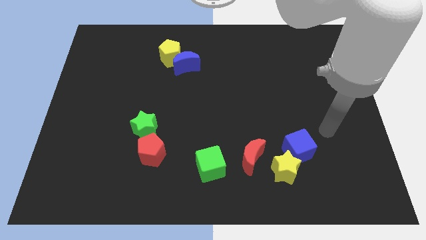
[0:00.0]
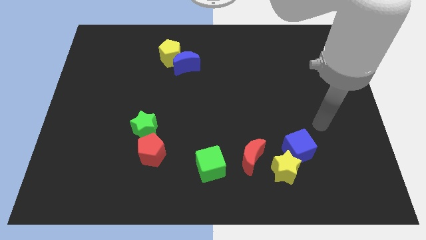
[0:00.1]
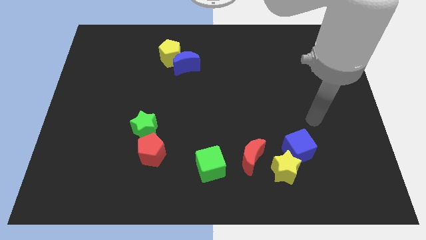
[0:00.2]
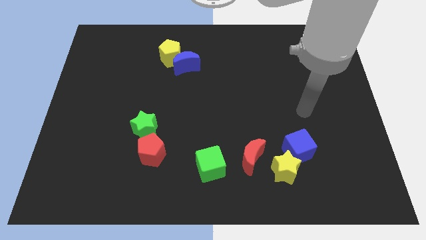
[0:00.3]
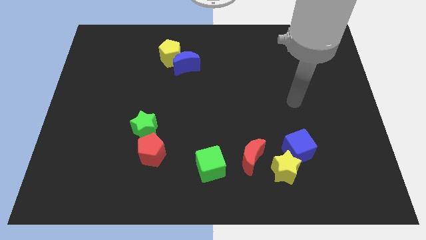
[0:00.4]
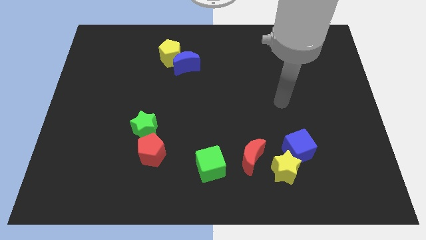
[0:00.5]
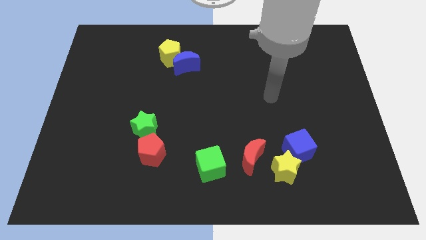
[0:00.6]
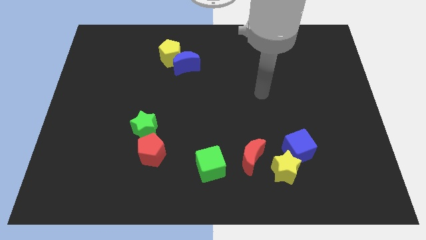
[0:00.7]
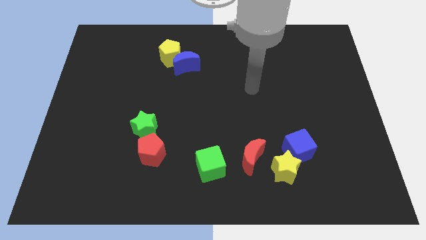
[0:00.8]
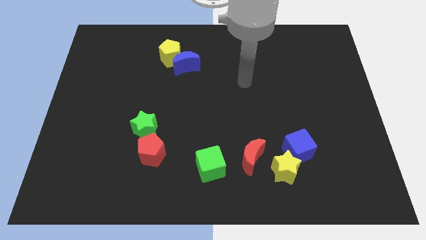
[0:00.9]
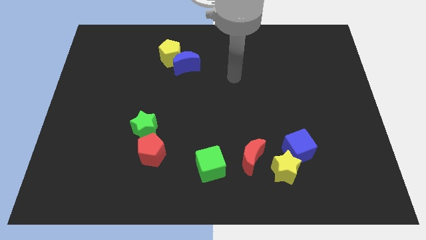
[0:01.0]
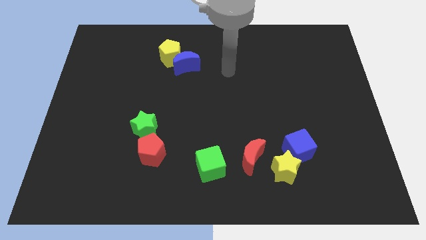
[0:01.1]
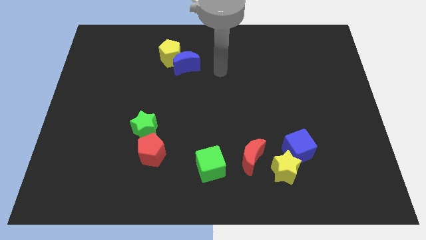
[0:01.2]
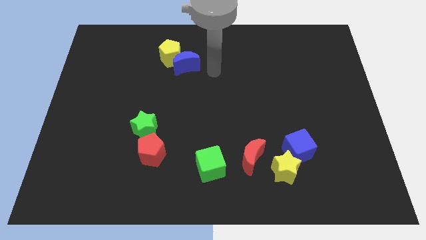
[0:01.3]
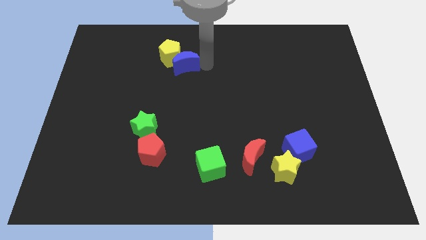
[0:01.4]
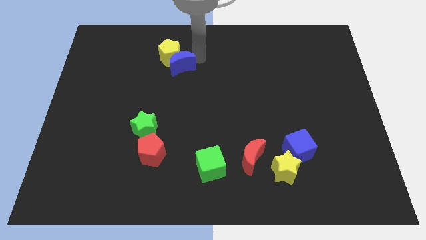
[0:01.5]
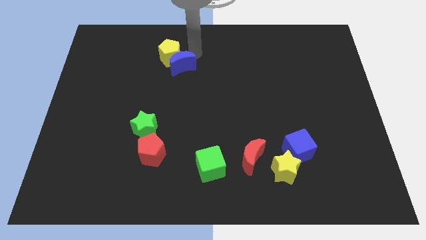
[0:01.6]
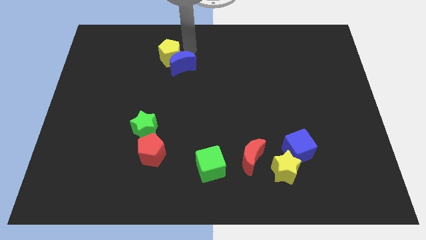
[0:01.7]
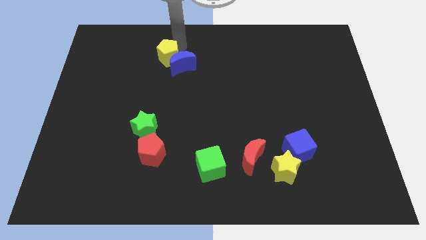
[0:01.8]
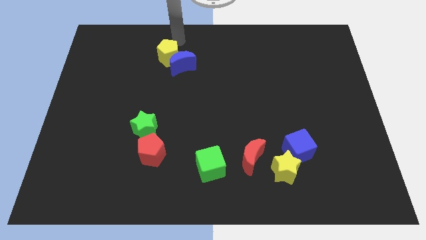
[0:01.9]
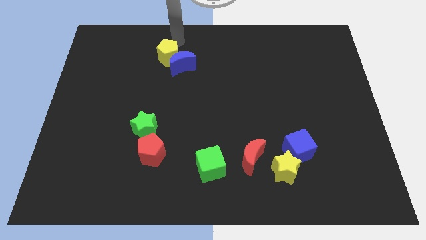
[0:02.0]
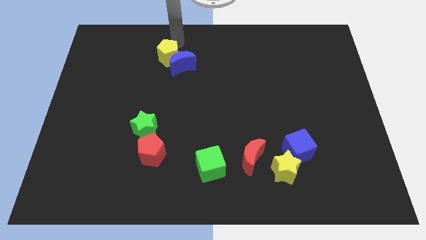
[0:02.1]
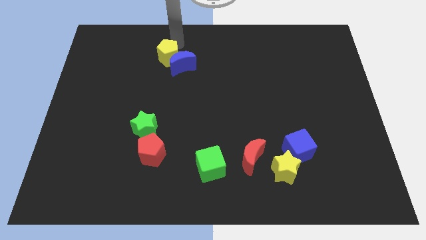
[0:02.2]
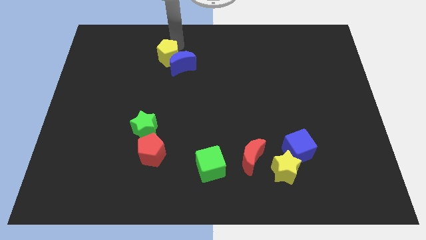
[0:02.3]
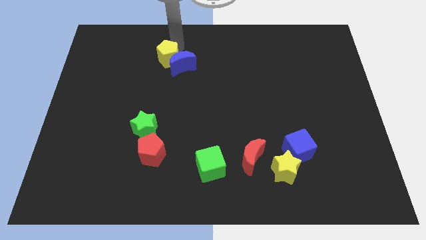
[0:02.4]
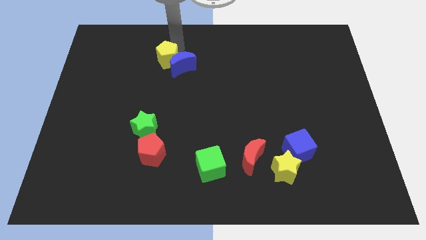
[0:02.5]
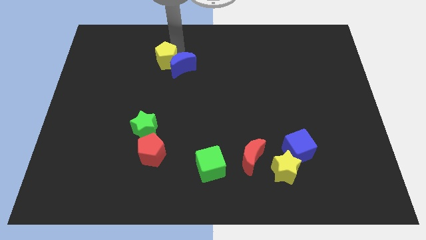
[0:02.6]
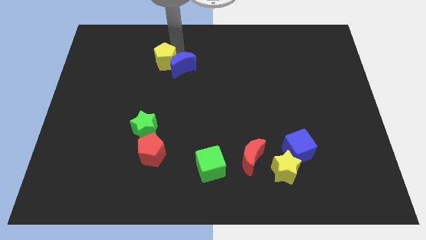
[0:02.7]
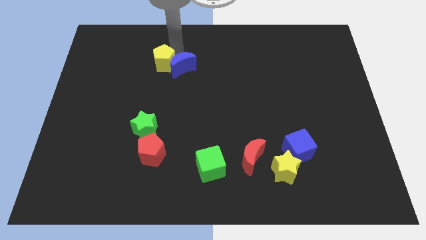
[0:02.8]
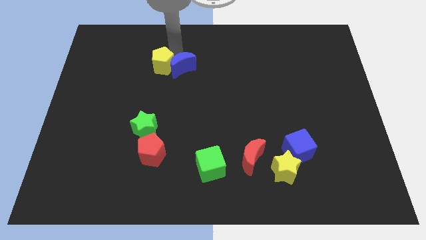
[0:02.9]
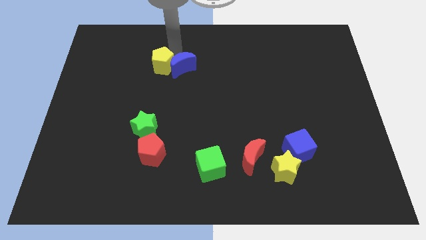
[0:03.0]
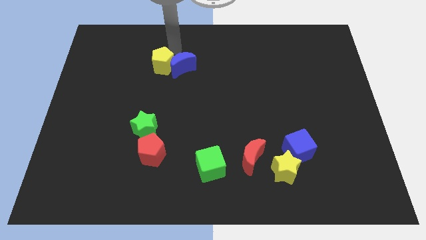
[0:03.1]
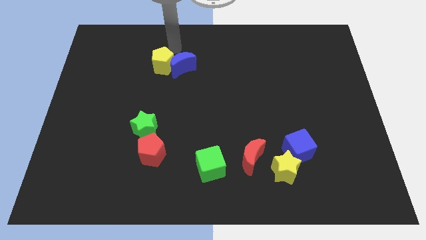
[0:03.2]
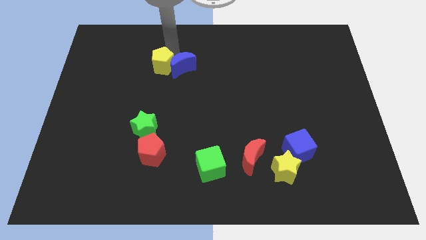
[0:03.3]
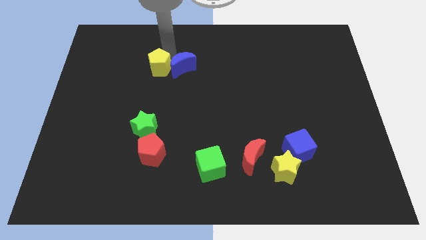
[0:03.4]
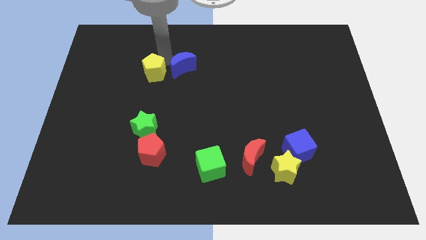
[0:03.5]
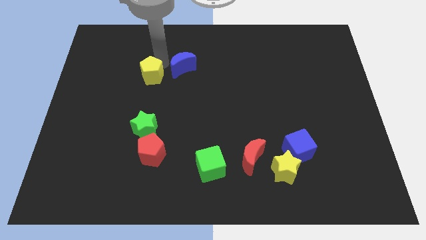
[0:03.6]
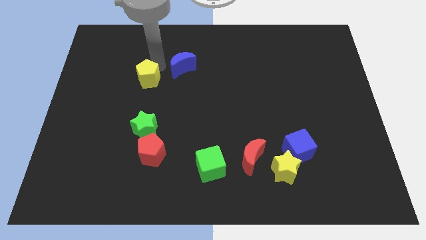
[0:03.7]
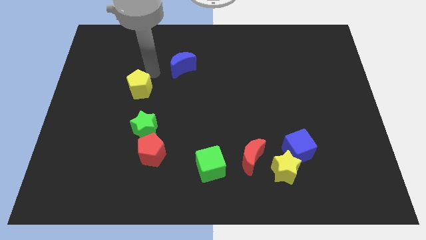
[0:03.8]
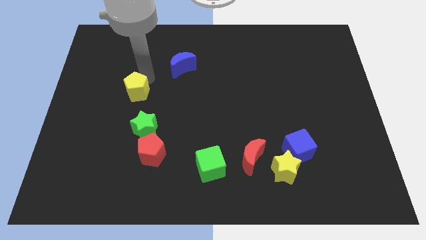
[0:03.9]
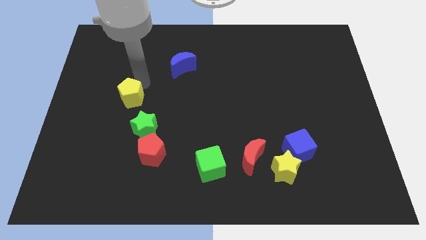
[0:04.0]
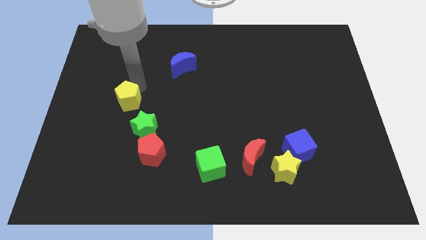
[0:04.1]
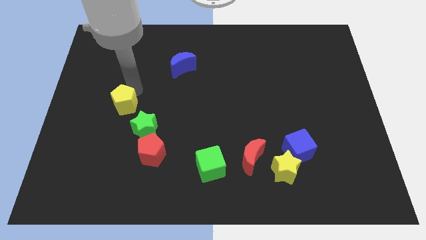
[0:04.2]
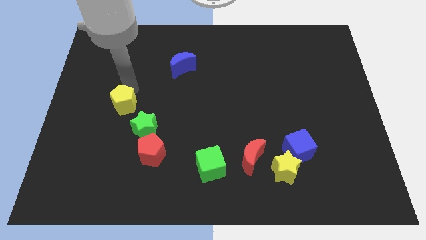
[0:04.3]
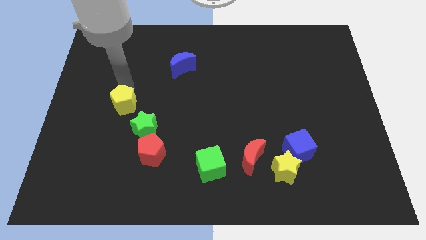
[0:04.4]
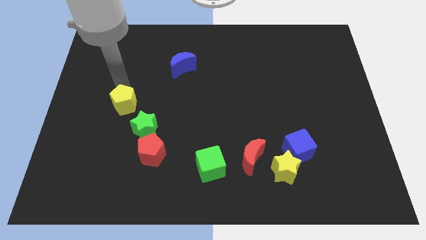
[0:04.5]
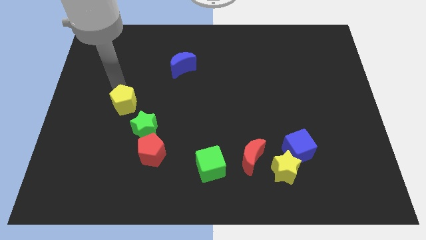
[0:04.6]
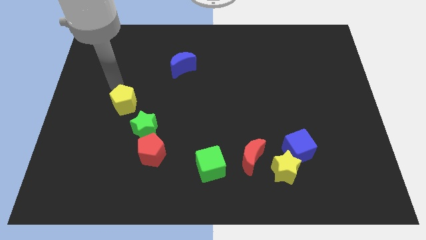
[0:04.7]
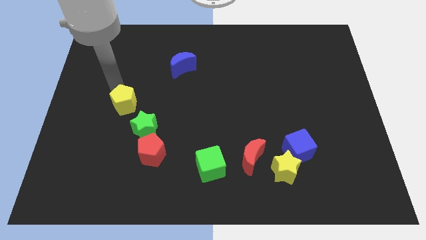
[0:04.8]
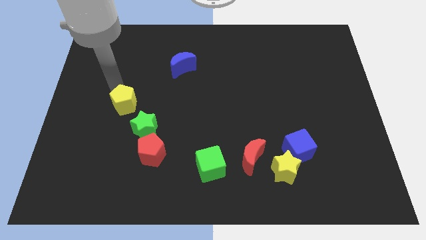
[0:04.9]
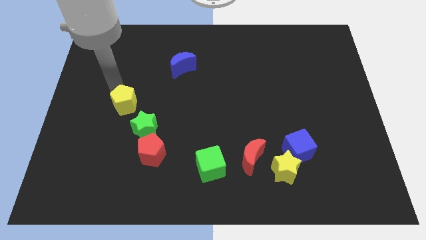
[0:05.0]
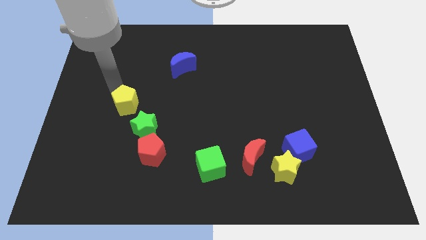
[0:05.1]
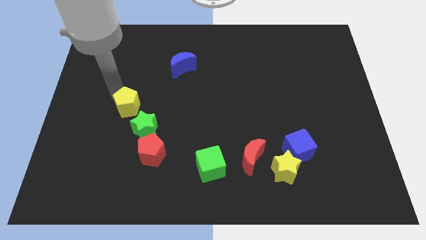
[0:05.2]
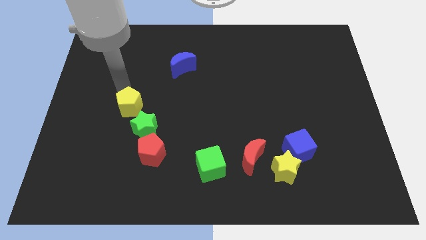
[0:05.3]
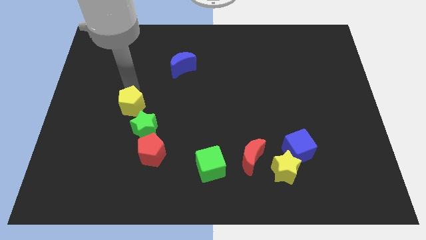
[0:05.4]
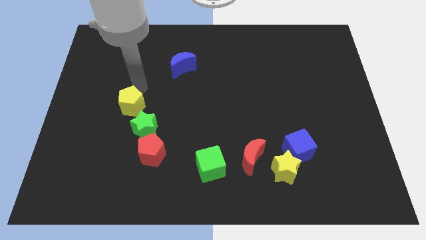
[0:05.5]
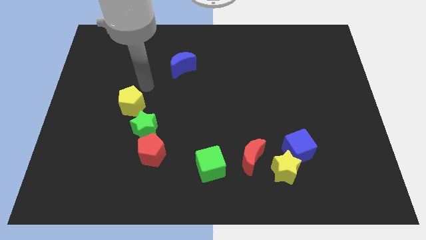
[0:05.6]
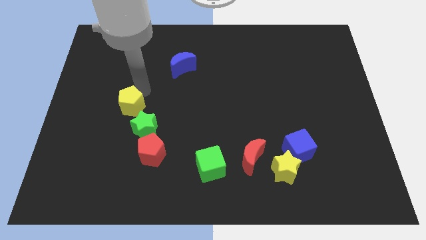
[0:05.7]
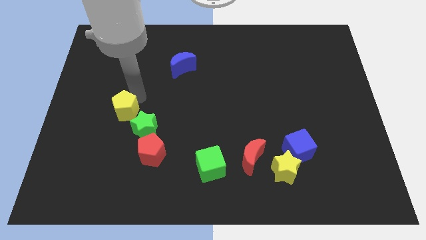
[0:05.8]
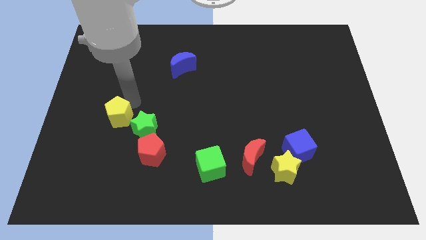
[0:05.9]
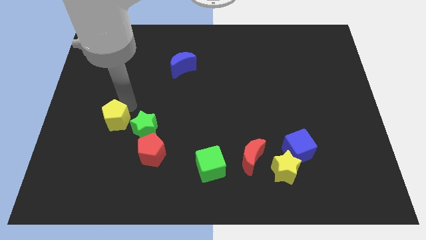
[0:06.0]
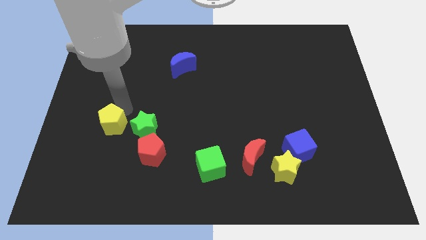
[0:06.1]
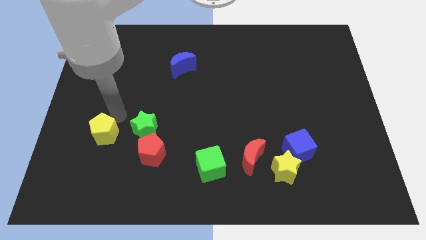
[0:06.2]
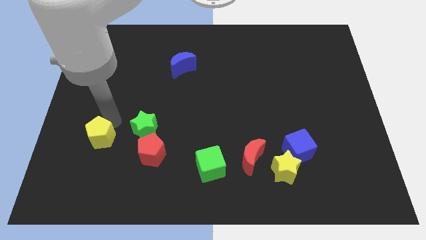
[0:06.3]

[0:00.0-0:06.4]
move the yellow pentagon just left of the red pentagon
